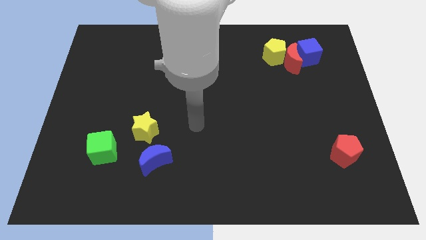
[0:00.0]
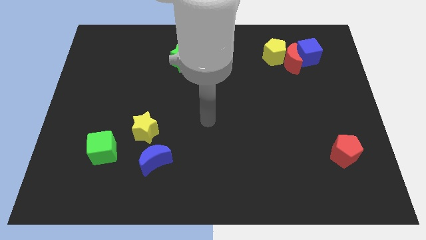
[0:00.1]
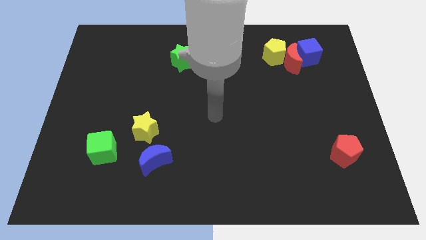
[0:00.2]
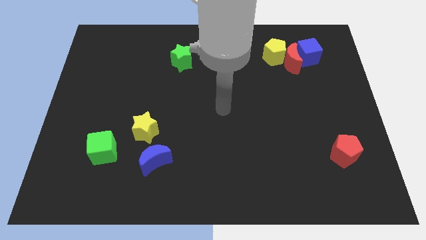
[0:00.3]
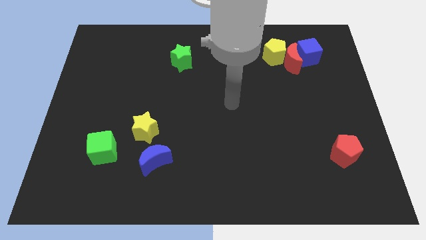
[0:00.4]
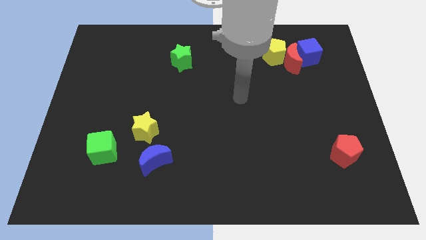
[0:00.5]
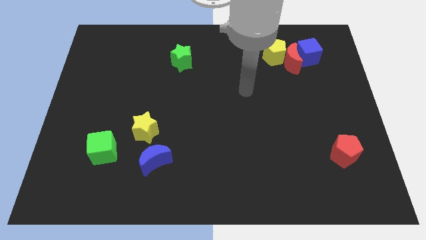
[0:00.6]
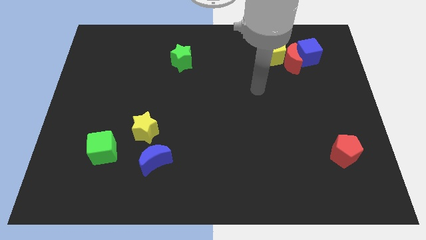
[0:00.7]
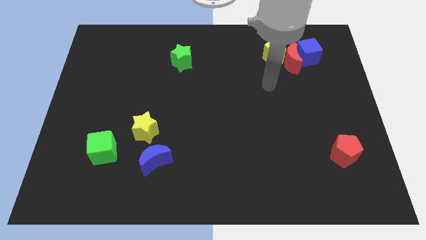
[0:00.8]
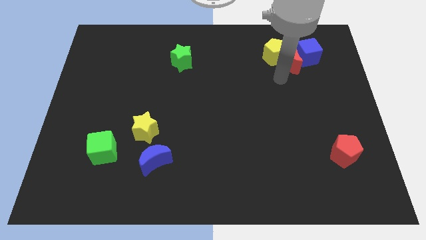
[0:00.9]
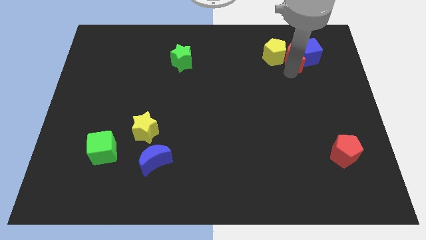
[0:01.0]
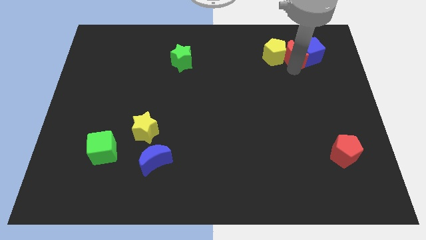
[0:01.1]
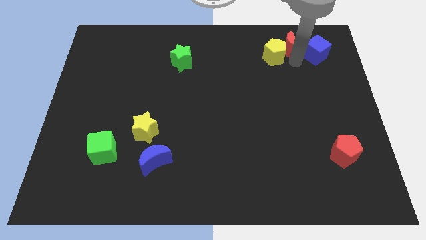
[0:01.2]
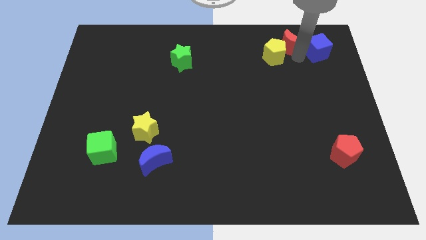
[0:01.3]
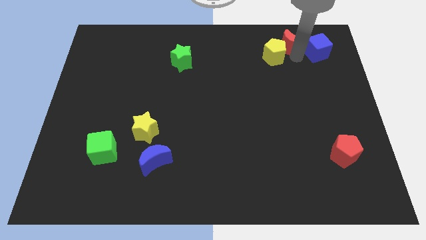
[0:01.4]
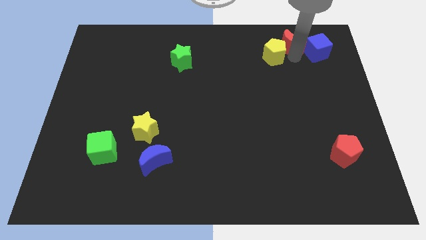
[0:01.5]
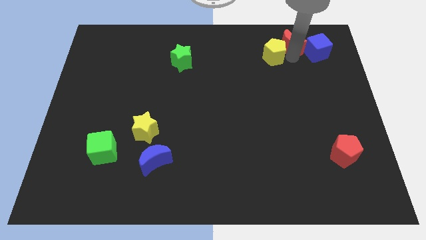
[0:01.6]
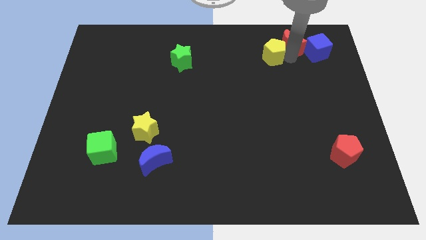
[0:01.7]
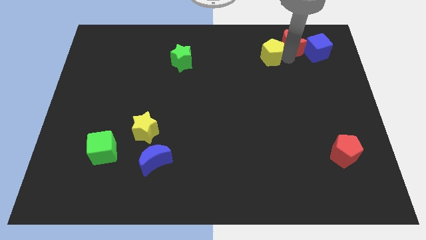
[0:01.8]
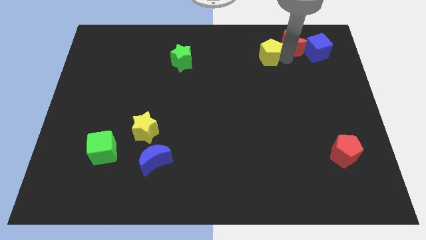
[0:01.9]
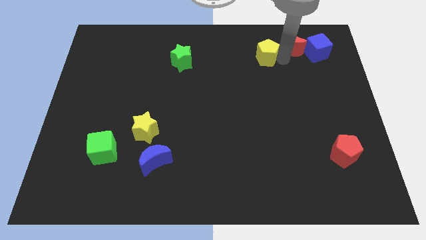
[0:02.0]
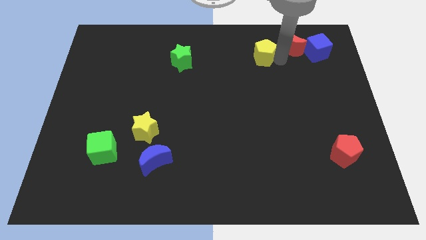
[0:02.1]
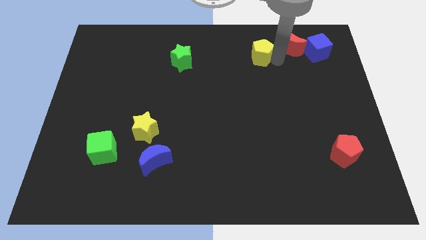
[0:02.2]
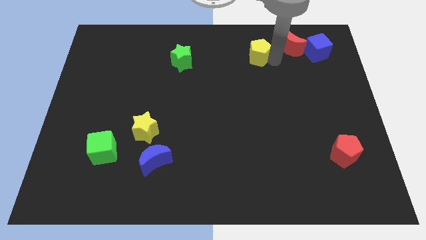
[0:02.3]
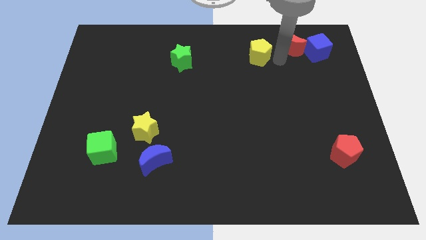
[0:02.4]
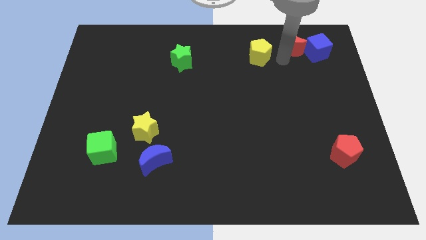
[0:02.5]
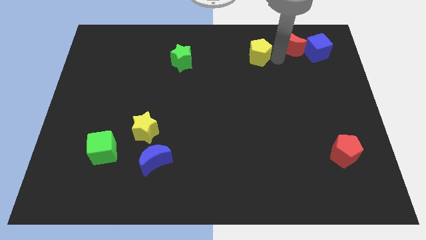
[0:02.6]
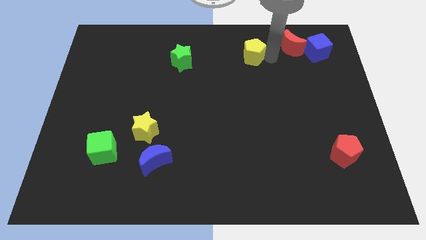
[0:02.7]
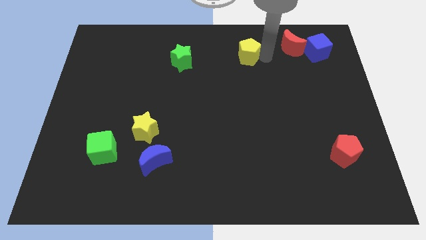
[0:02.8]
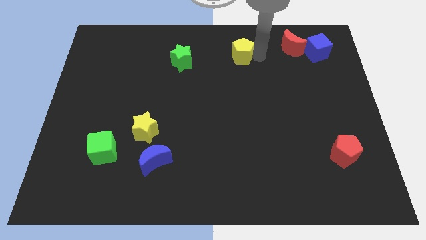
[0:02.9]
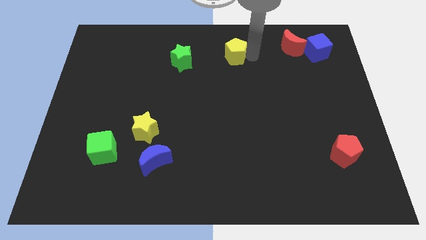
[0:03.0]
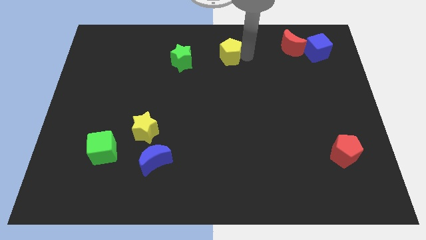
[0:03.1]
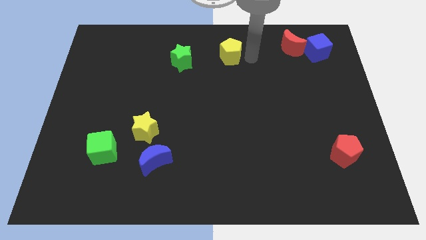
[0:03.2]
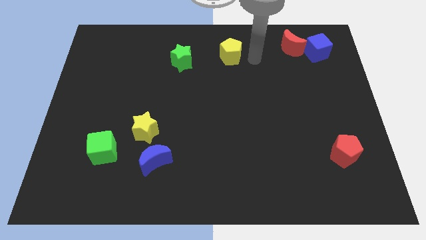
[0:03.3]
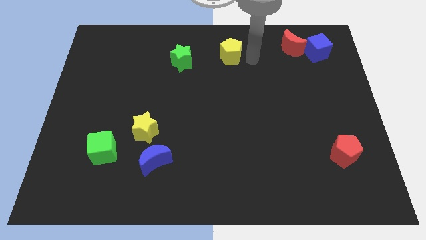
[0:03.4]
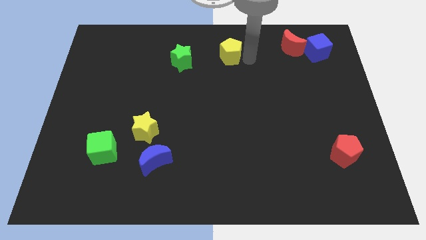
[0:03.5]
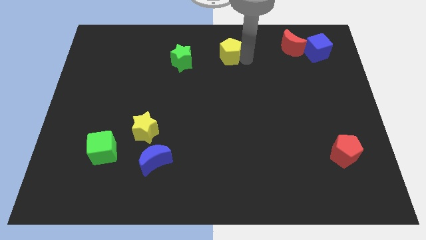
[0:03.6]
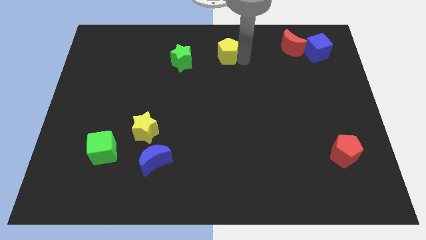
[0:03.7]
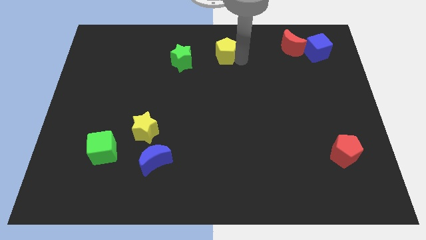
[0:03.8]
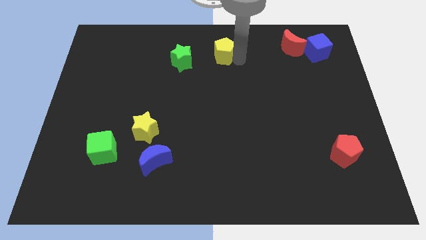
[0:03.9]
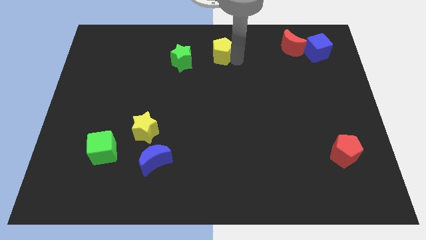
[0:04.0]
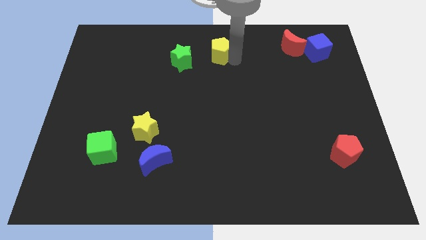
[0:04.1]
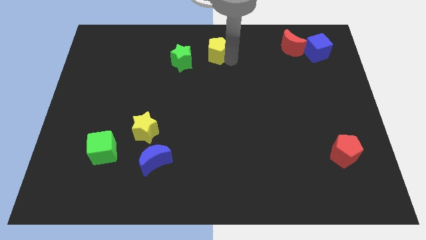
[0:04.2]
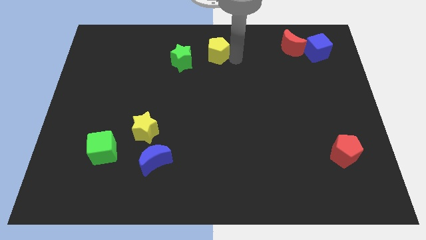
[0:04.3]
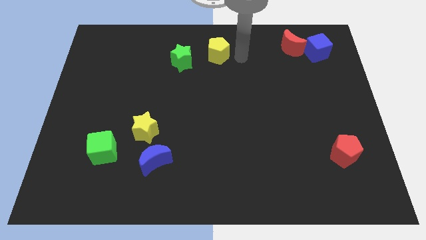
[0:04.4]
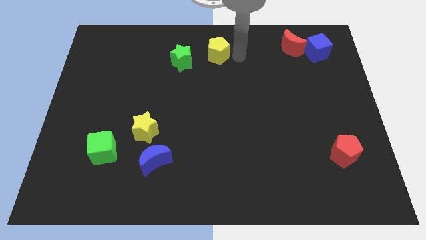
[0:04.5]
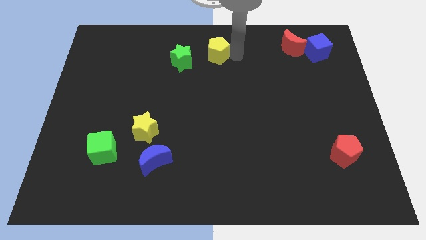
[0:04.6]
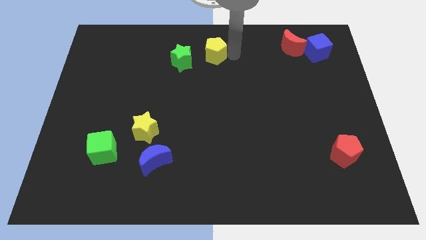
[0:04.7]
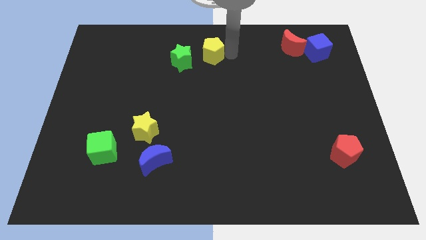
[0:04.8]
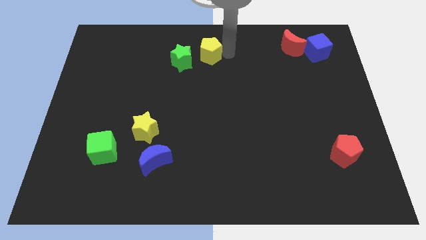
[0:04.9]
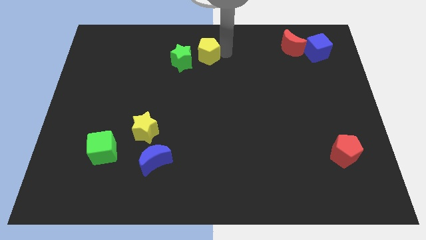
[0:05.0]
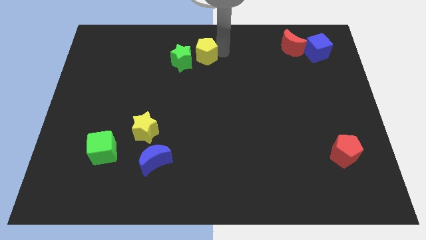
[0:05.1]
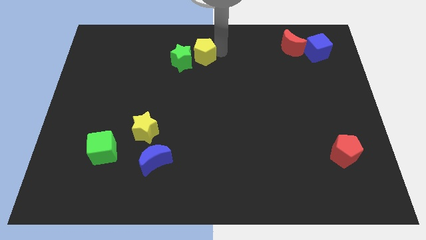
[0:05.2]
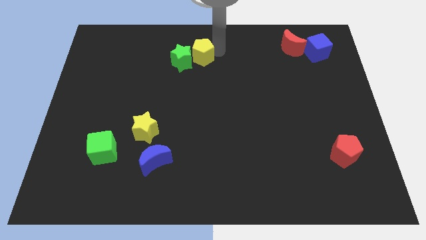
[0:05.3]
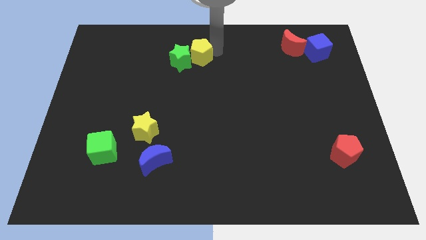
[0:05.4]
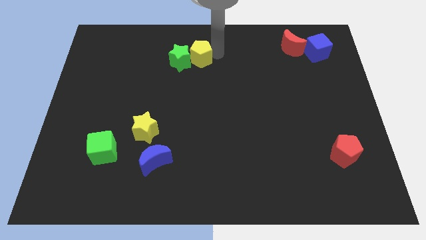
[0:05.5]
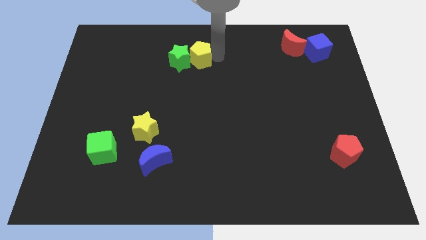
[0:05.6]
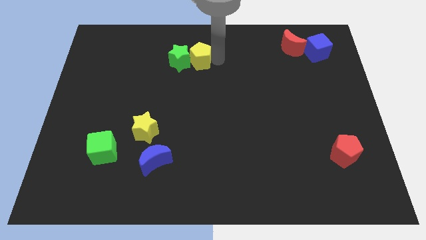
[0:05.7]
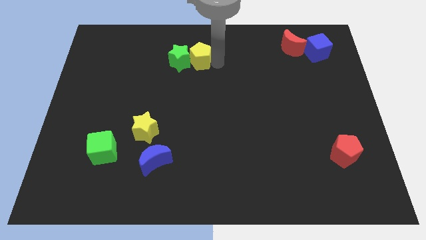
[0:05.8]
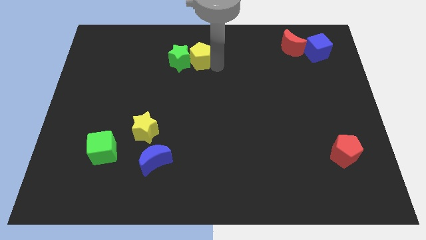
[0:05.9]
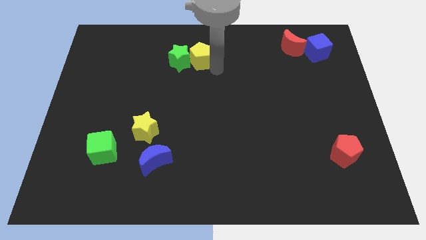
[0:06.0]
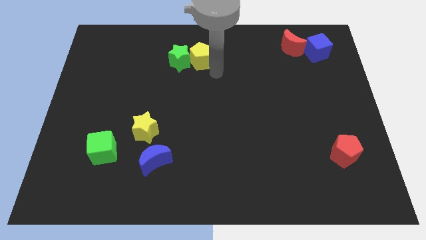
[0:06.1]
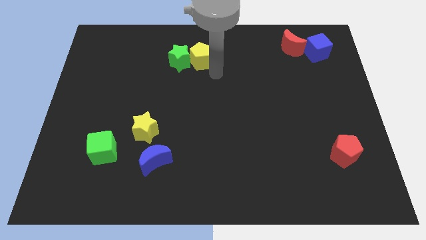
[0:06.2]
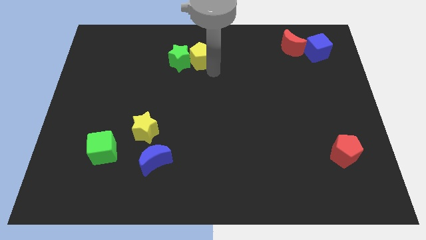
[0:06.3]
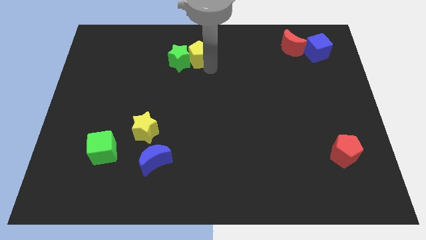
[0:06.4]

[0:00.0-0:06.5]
push the yellow pentagon to the left

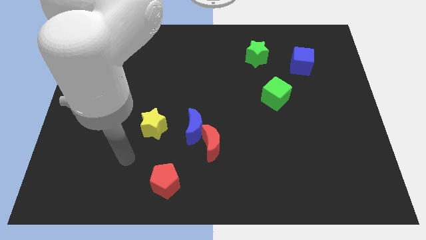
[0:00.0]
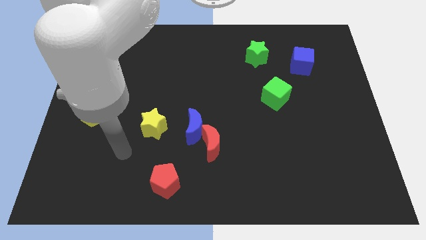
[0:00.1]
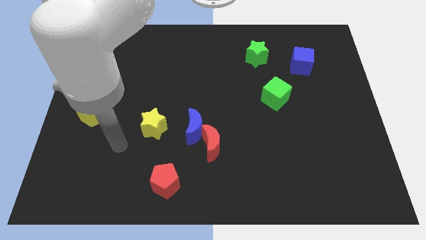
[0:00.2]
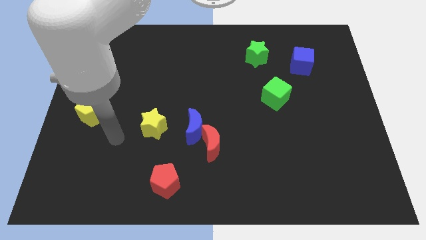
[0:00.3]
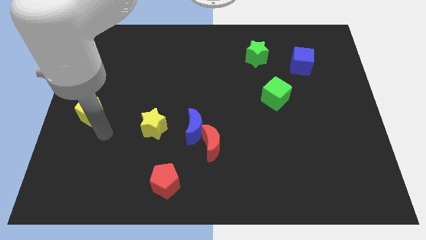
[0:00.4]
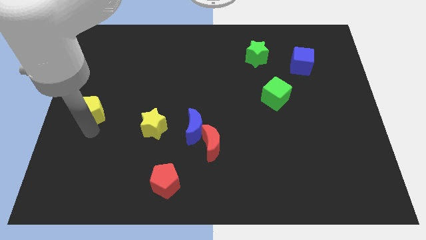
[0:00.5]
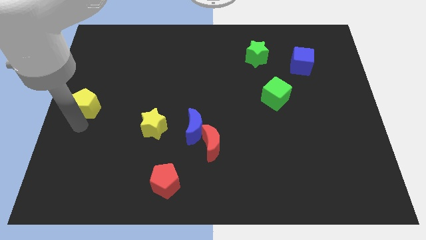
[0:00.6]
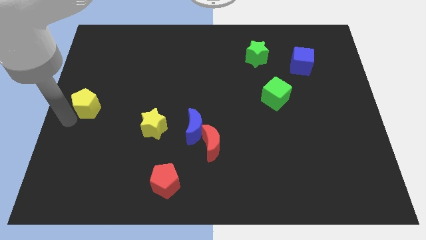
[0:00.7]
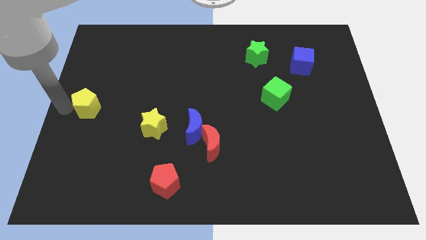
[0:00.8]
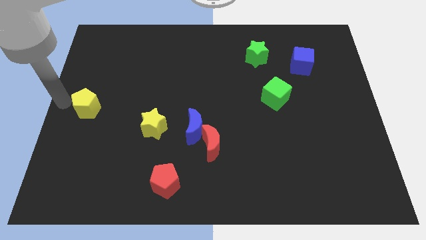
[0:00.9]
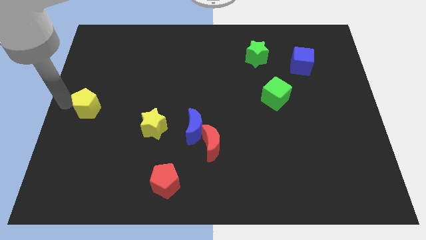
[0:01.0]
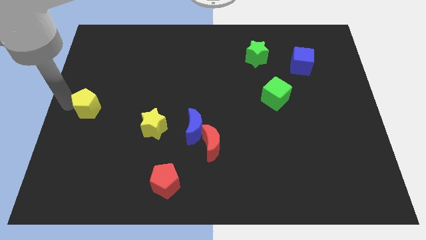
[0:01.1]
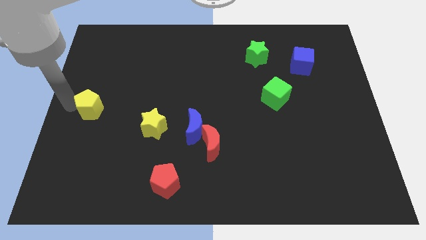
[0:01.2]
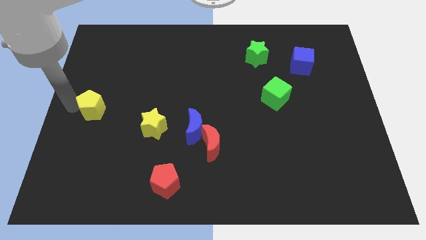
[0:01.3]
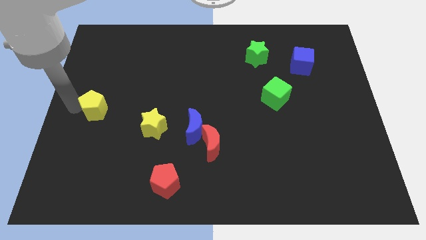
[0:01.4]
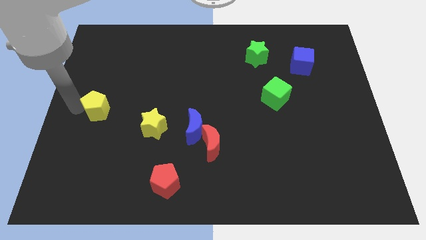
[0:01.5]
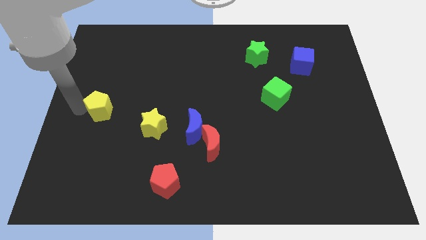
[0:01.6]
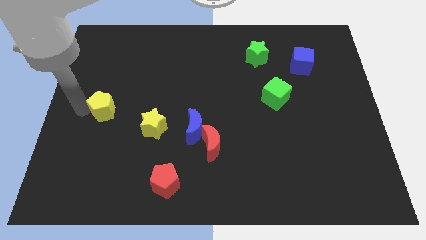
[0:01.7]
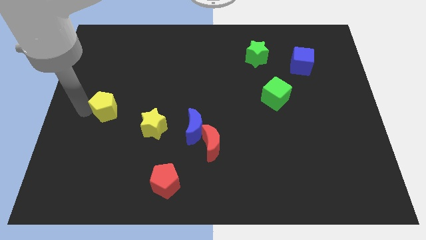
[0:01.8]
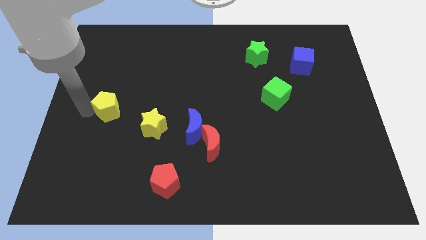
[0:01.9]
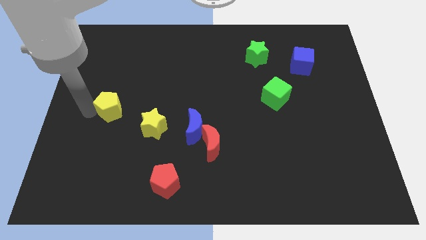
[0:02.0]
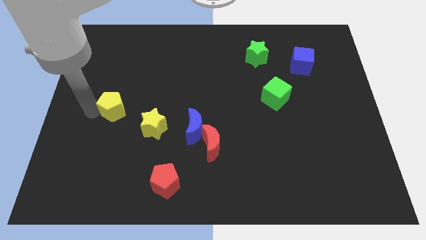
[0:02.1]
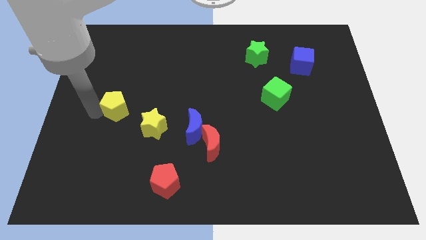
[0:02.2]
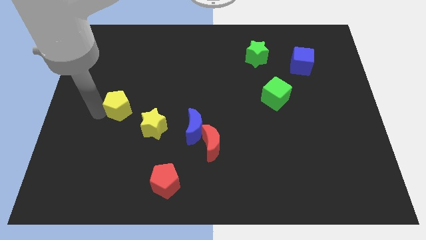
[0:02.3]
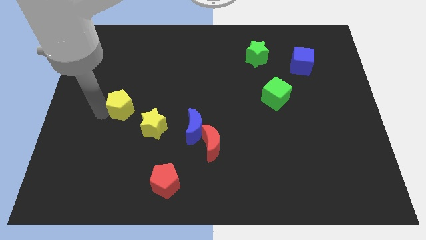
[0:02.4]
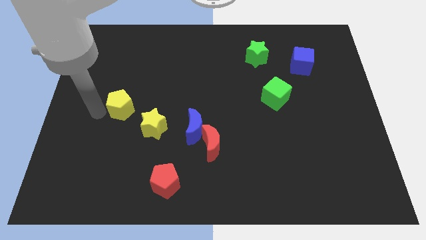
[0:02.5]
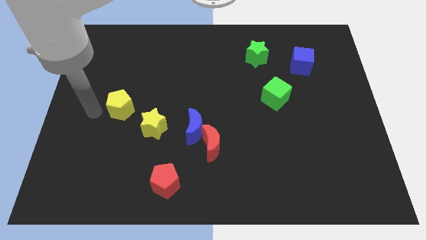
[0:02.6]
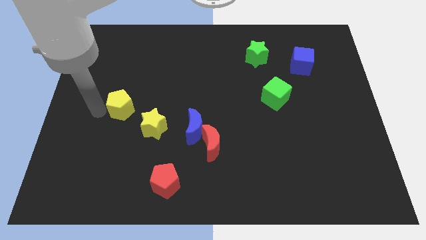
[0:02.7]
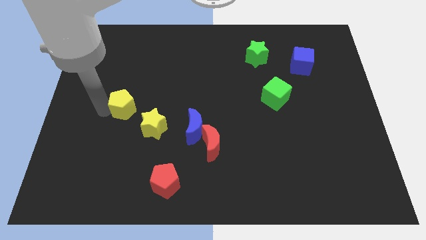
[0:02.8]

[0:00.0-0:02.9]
push the yellow pentagon a little bit to the right
